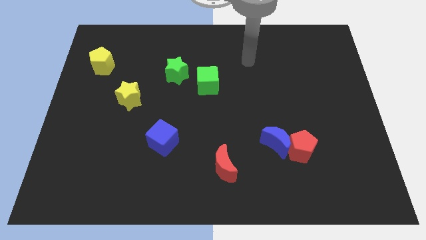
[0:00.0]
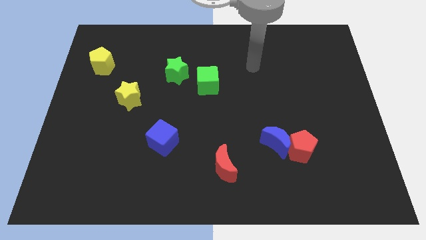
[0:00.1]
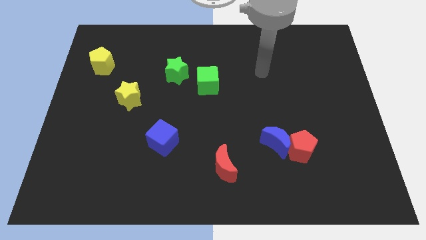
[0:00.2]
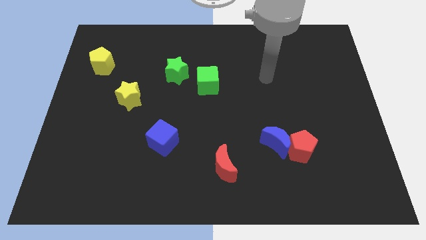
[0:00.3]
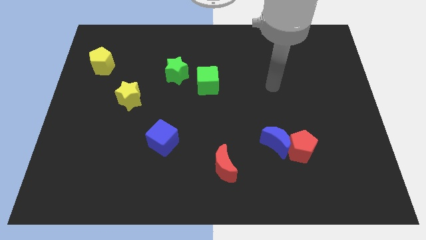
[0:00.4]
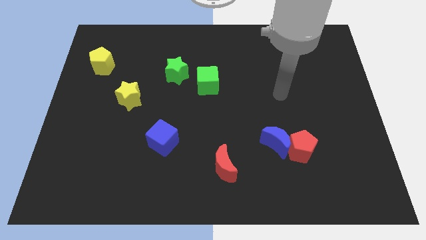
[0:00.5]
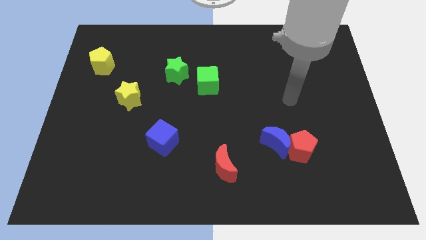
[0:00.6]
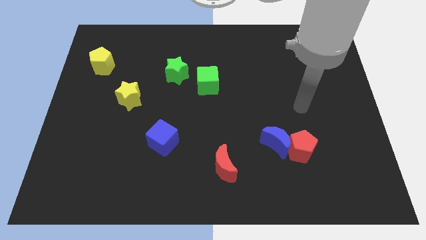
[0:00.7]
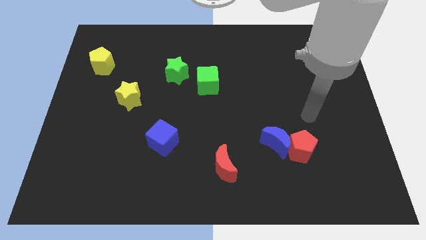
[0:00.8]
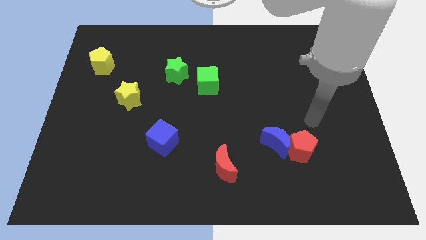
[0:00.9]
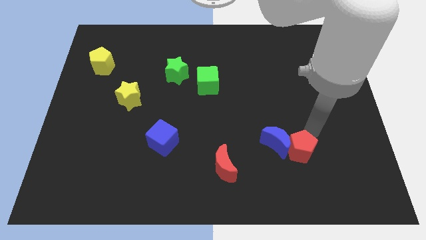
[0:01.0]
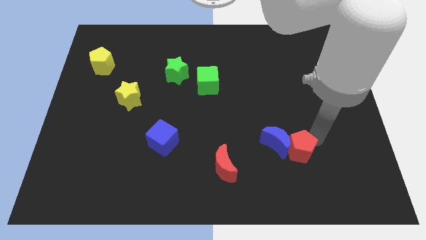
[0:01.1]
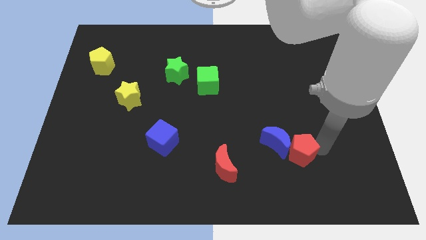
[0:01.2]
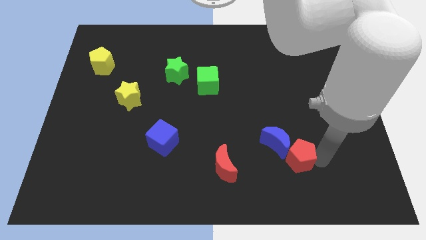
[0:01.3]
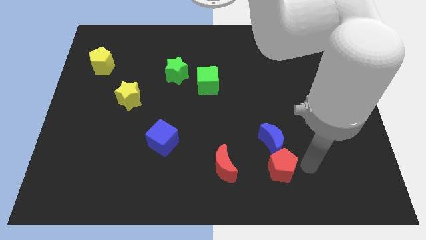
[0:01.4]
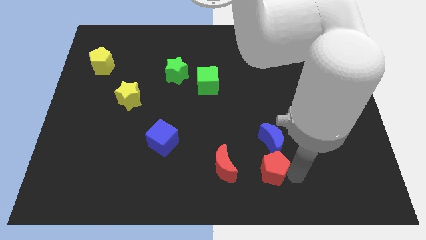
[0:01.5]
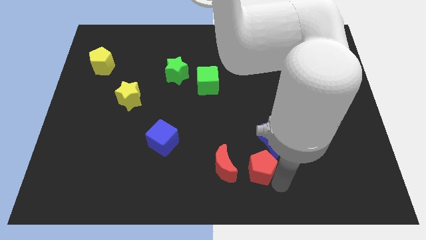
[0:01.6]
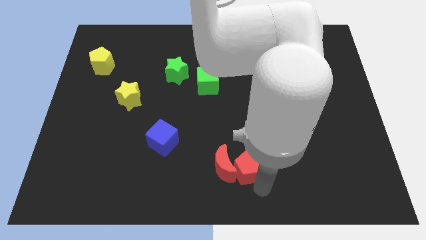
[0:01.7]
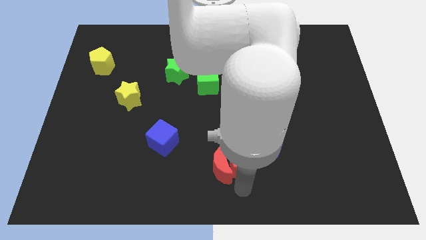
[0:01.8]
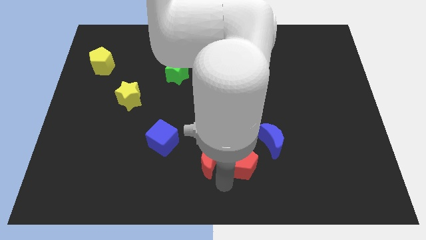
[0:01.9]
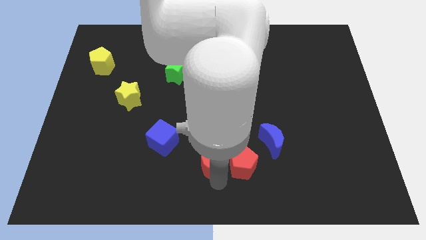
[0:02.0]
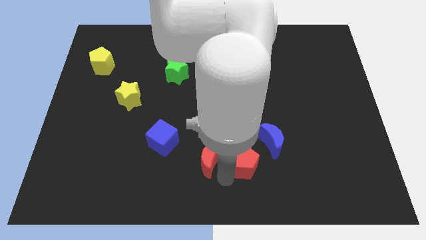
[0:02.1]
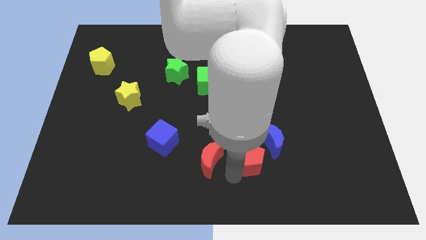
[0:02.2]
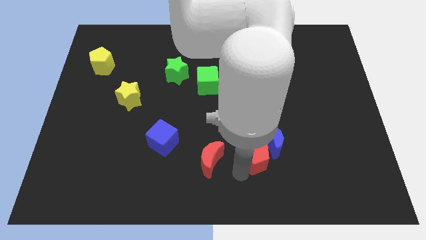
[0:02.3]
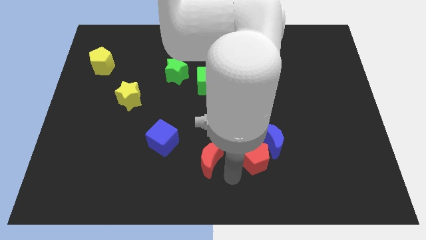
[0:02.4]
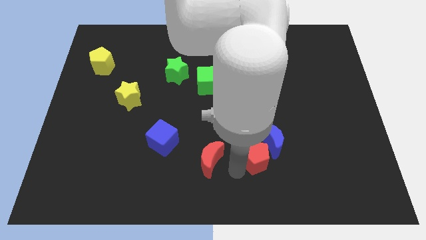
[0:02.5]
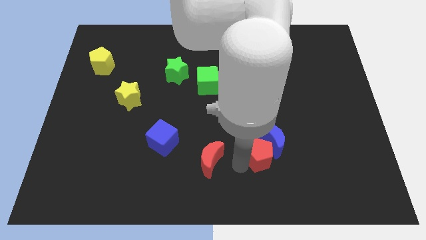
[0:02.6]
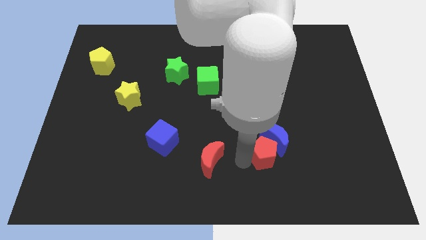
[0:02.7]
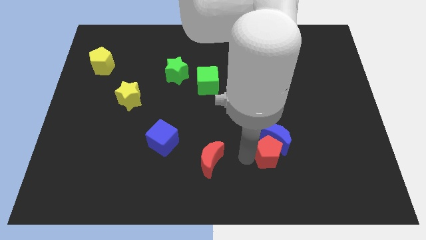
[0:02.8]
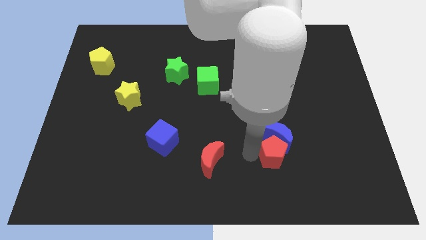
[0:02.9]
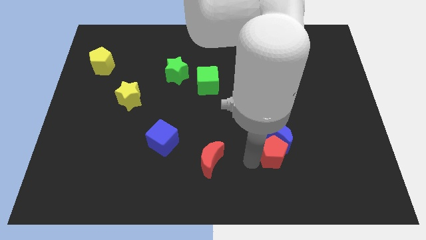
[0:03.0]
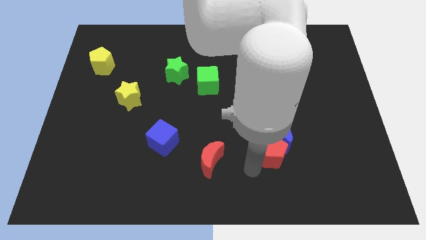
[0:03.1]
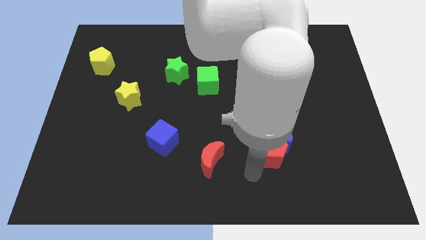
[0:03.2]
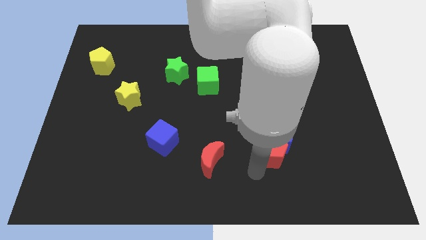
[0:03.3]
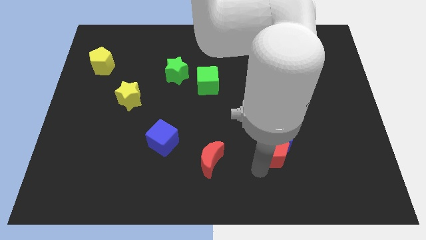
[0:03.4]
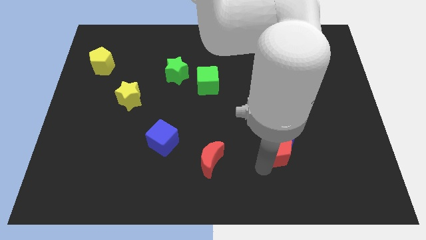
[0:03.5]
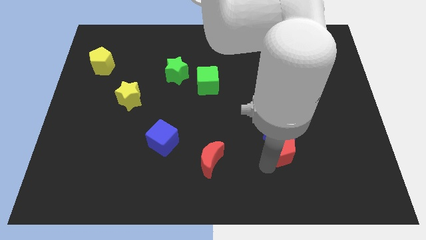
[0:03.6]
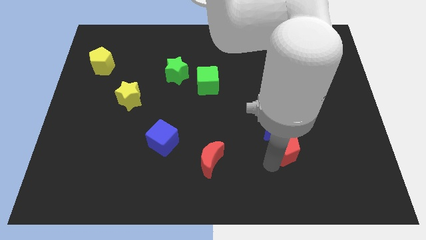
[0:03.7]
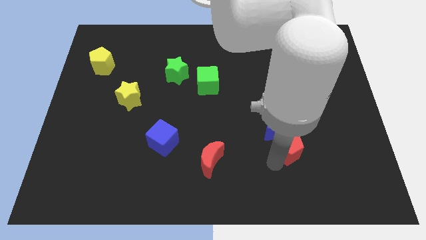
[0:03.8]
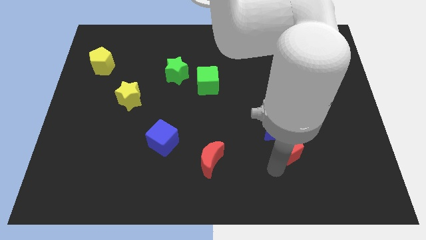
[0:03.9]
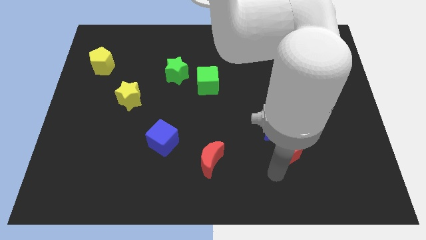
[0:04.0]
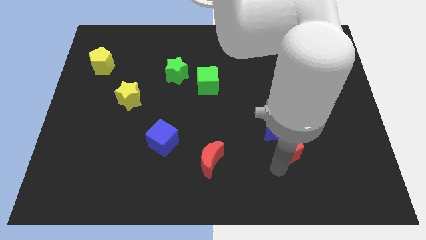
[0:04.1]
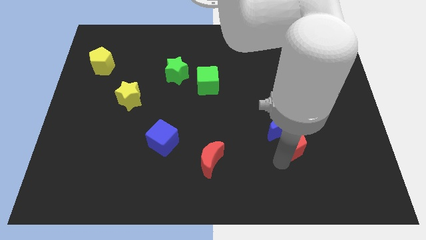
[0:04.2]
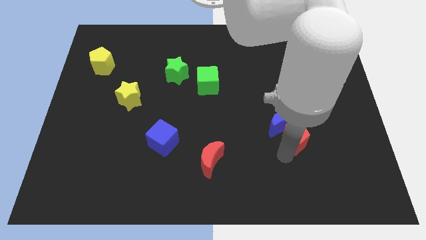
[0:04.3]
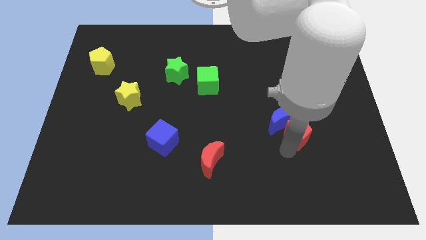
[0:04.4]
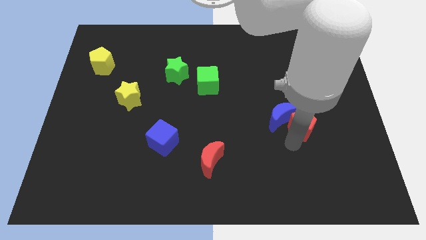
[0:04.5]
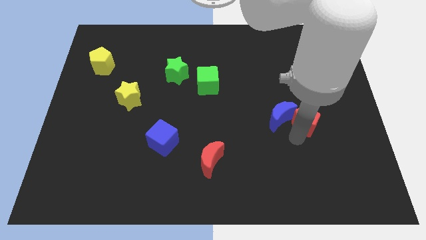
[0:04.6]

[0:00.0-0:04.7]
push the red pentagon a little up

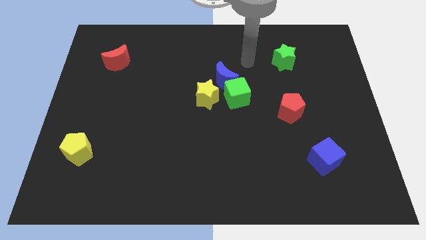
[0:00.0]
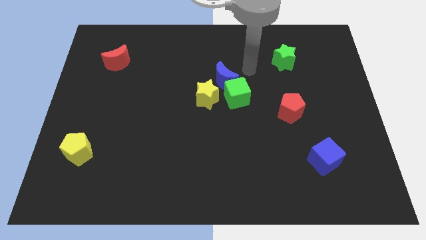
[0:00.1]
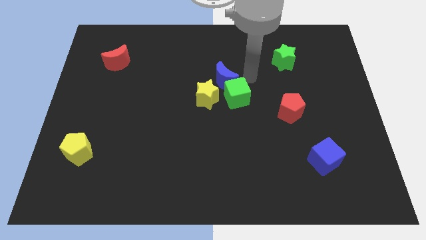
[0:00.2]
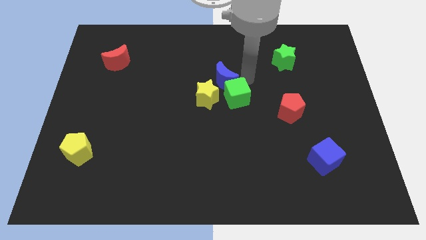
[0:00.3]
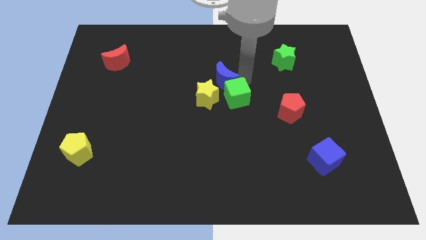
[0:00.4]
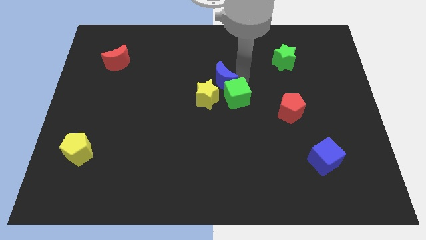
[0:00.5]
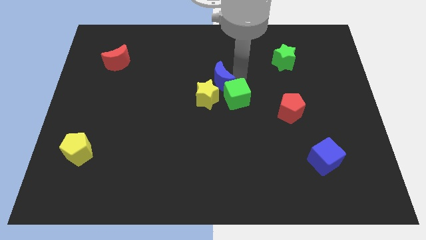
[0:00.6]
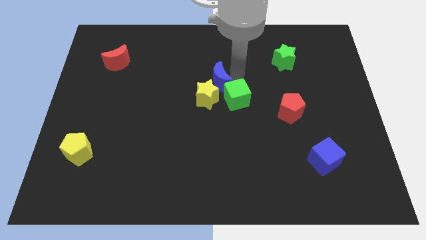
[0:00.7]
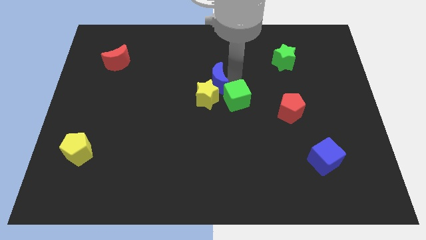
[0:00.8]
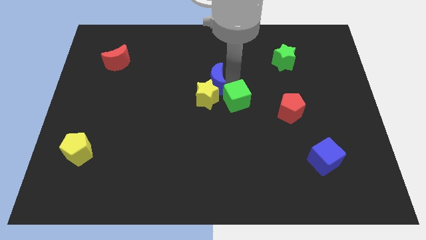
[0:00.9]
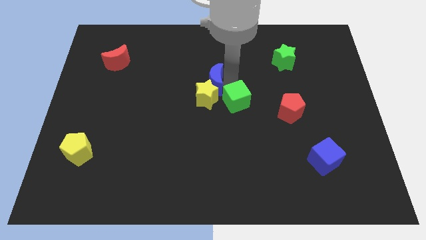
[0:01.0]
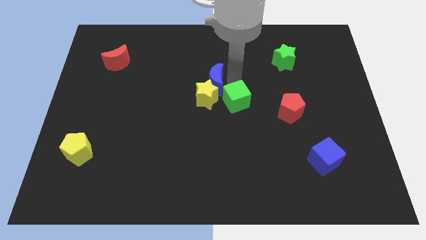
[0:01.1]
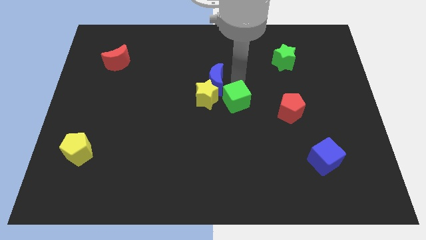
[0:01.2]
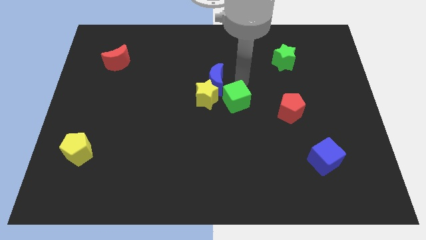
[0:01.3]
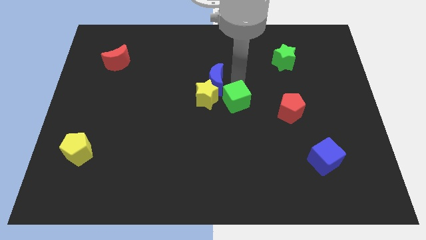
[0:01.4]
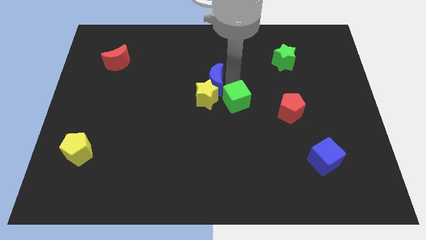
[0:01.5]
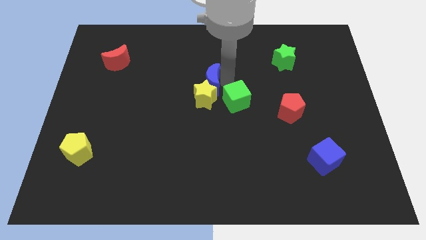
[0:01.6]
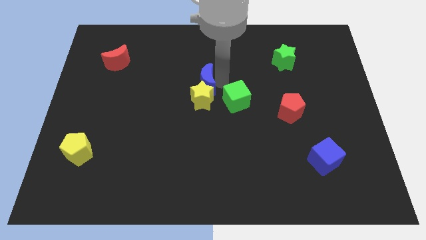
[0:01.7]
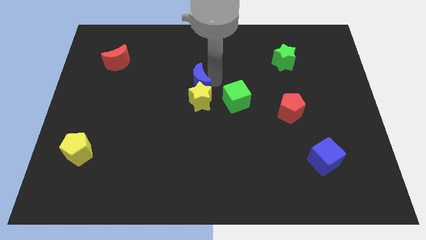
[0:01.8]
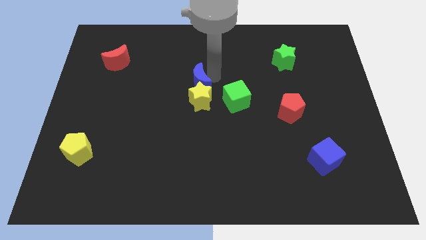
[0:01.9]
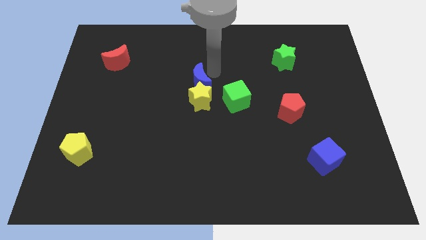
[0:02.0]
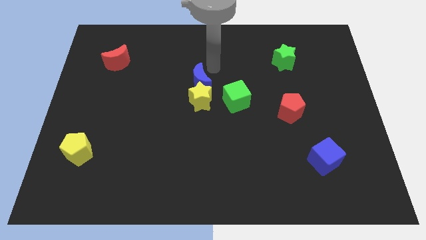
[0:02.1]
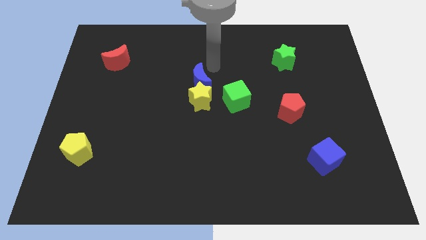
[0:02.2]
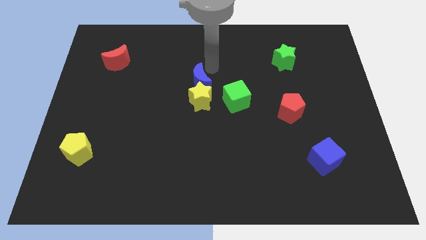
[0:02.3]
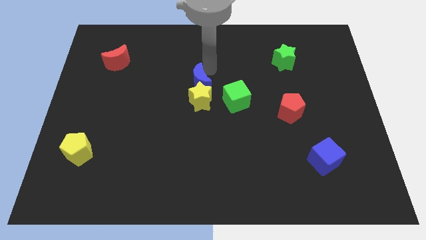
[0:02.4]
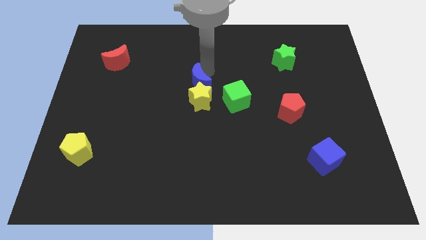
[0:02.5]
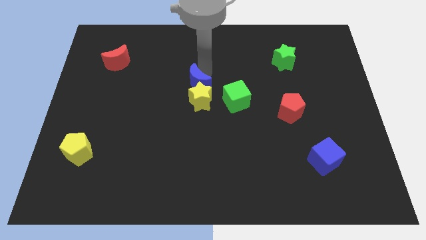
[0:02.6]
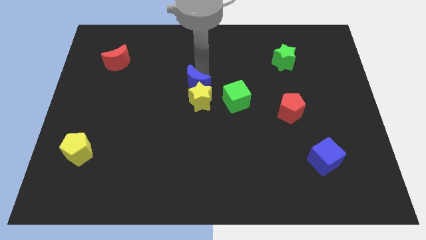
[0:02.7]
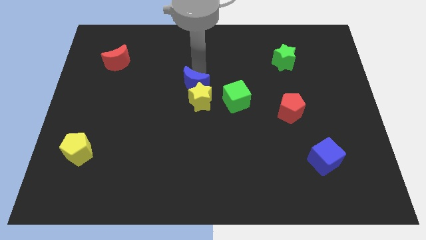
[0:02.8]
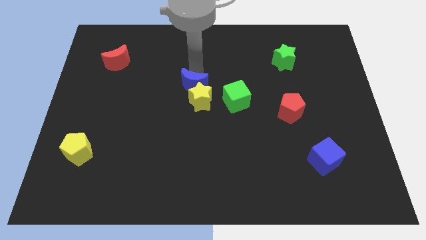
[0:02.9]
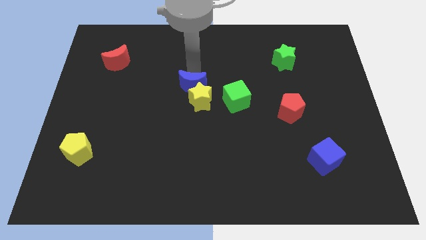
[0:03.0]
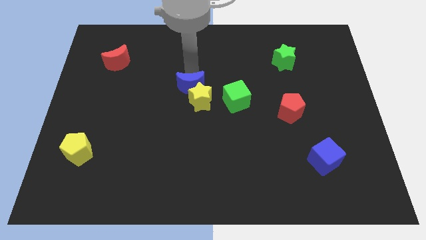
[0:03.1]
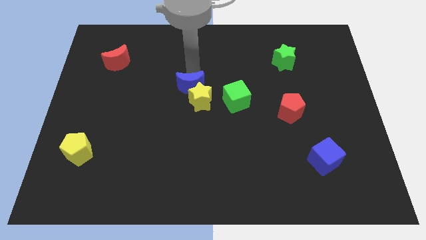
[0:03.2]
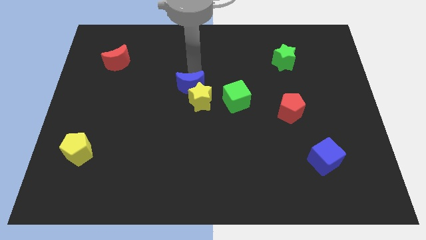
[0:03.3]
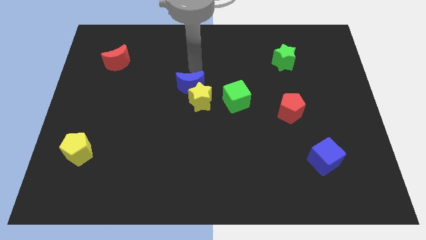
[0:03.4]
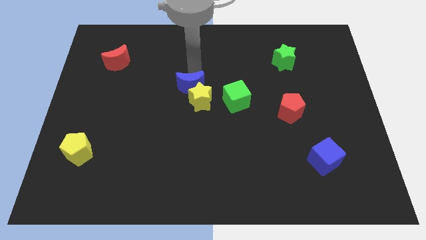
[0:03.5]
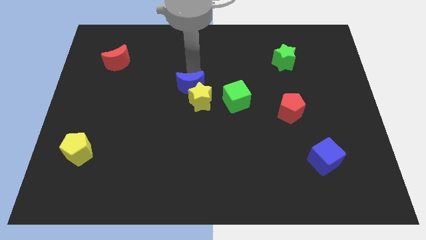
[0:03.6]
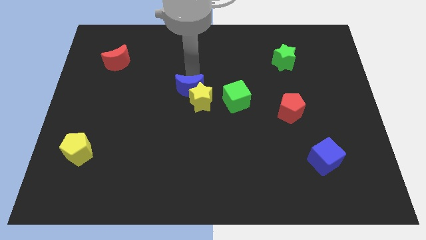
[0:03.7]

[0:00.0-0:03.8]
move the blue moon down and to the left slightly

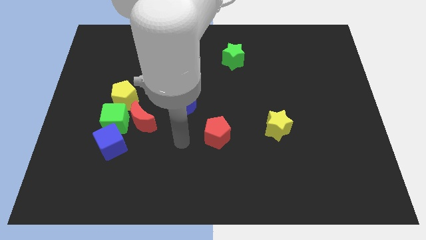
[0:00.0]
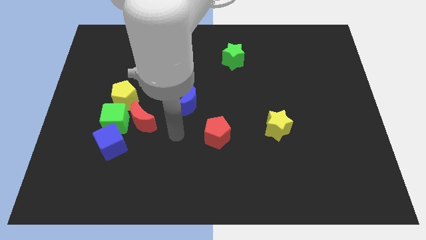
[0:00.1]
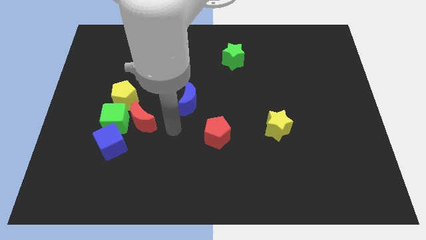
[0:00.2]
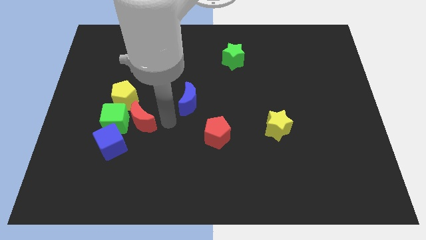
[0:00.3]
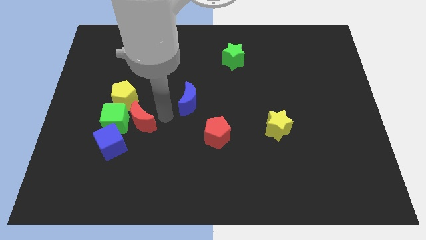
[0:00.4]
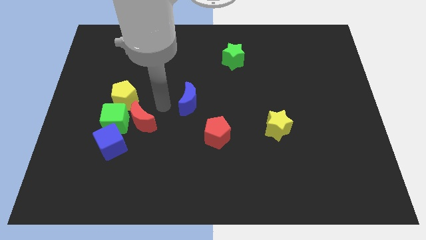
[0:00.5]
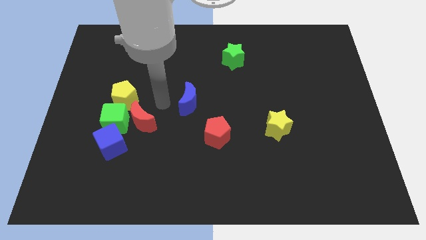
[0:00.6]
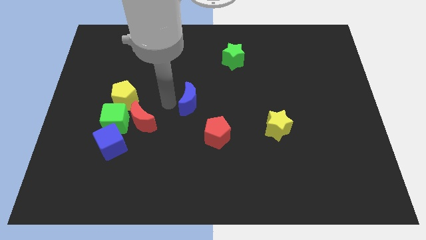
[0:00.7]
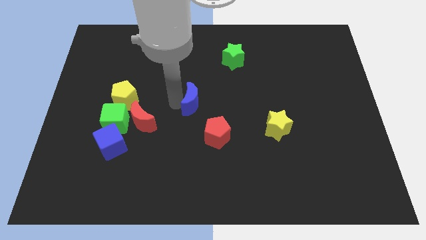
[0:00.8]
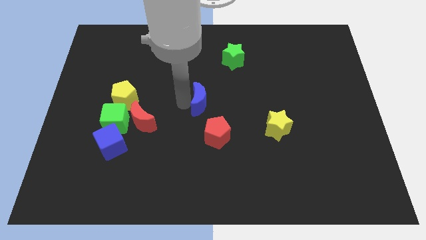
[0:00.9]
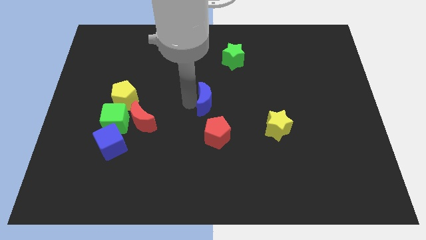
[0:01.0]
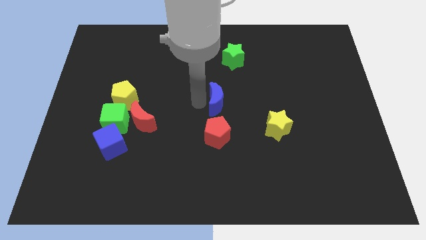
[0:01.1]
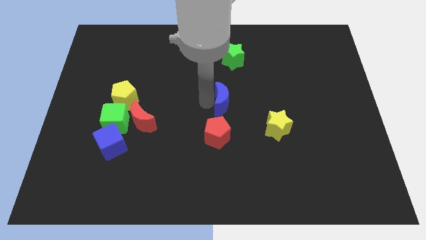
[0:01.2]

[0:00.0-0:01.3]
move the blue moon a little bit right
